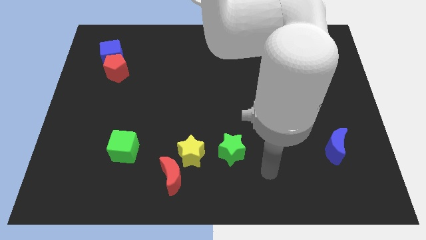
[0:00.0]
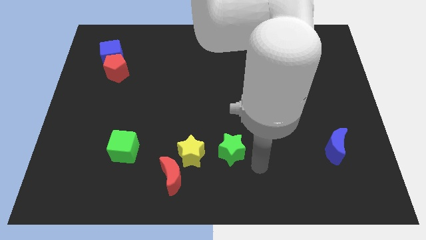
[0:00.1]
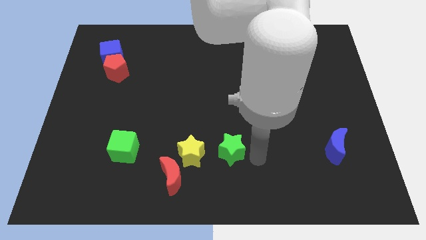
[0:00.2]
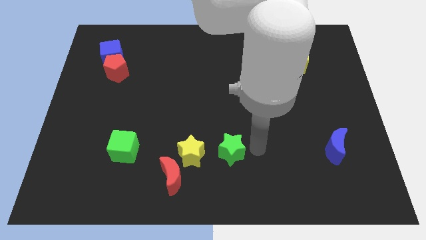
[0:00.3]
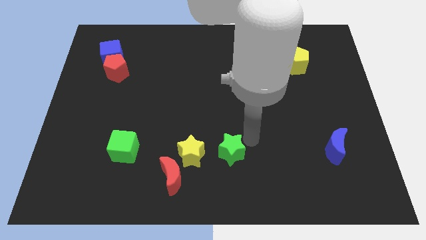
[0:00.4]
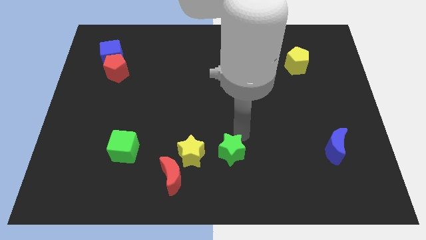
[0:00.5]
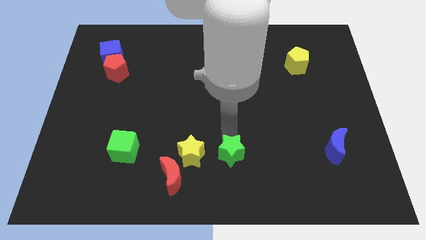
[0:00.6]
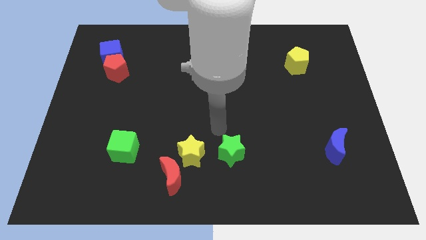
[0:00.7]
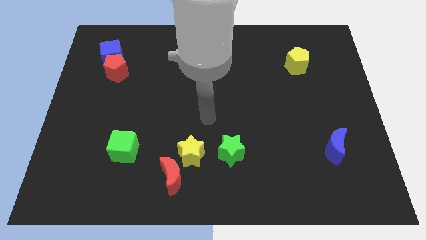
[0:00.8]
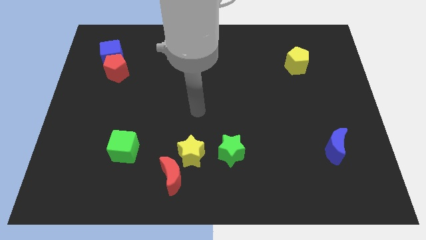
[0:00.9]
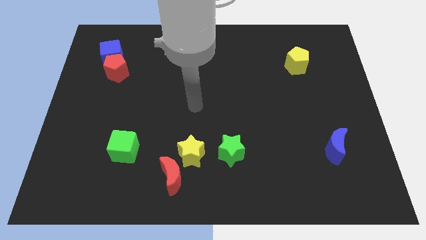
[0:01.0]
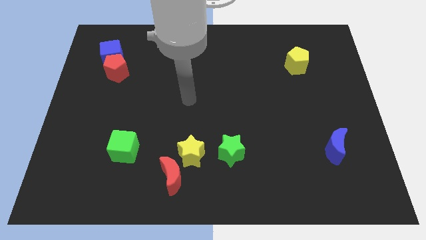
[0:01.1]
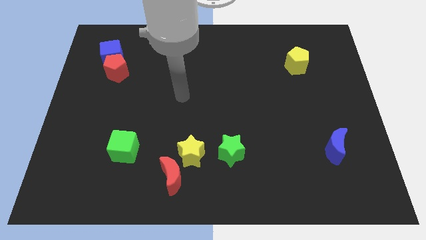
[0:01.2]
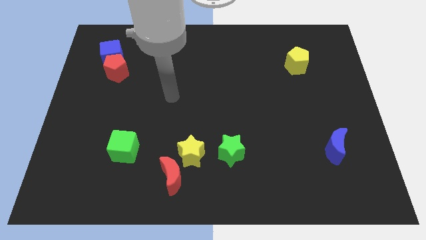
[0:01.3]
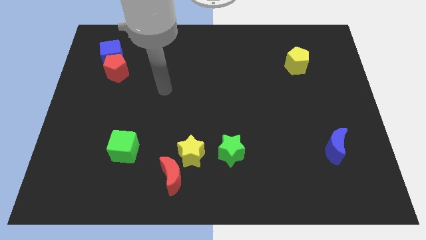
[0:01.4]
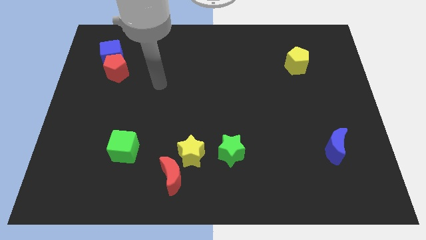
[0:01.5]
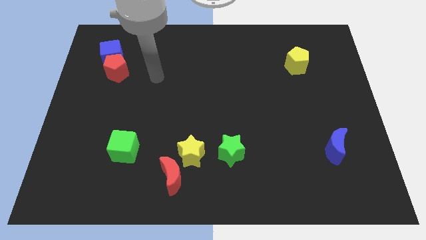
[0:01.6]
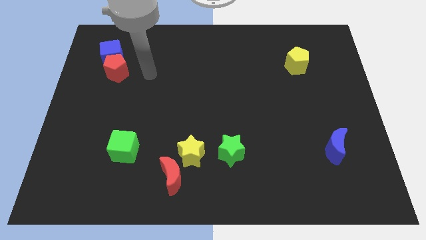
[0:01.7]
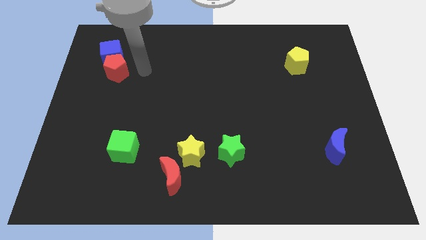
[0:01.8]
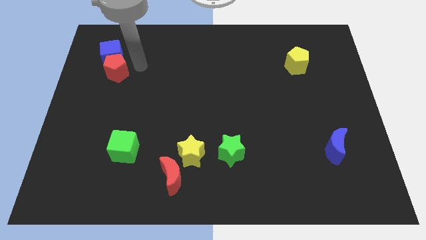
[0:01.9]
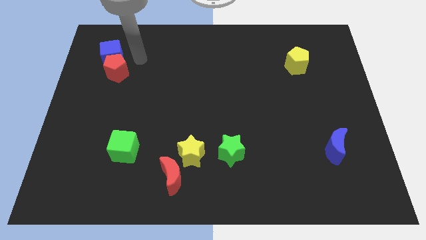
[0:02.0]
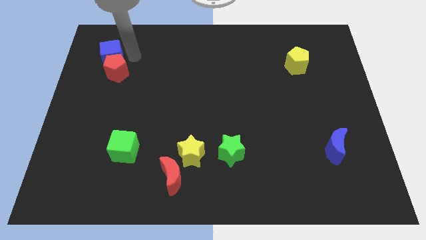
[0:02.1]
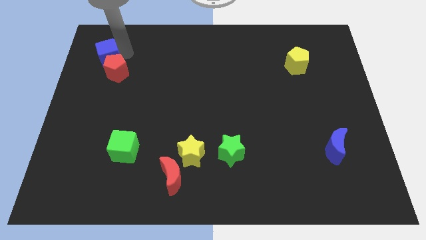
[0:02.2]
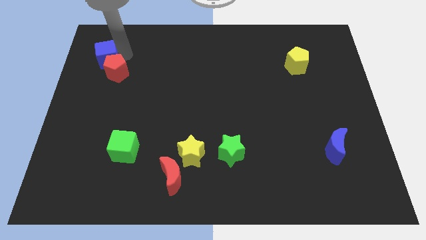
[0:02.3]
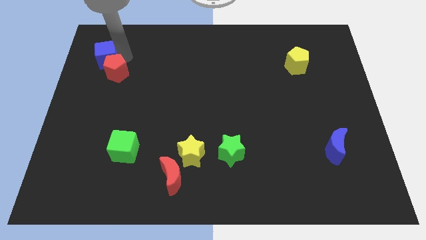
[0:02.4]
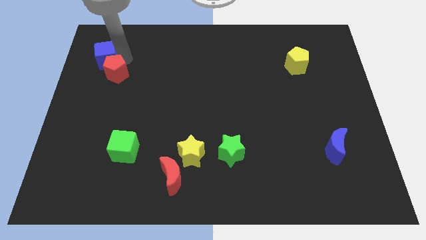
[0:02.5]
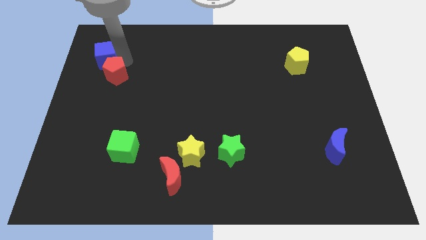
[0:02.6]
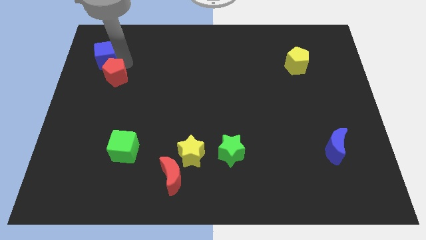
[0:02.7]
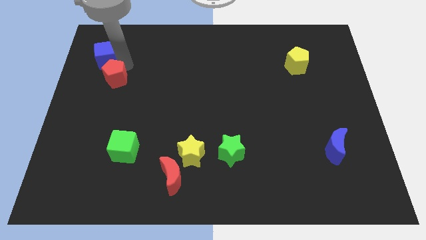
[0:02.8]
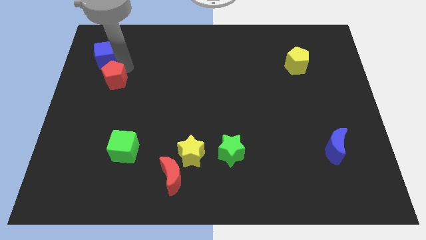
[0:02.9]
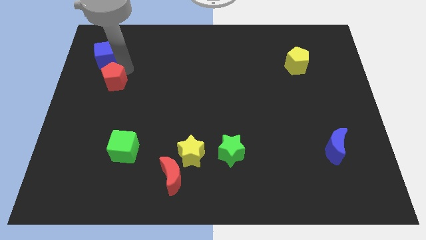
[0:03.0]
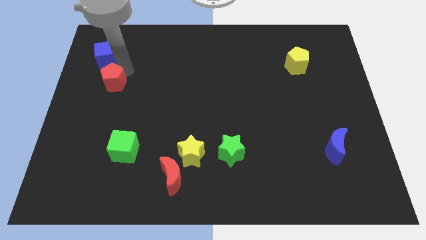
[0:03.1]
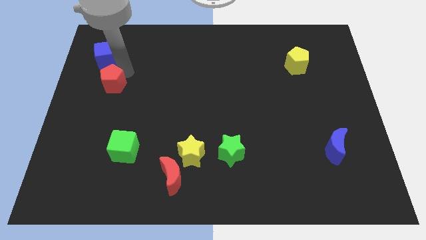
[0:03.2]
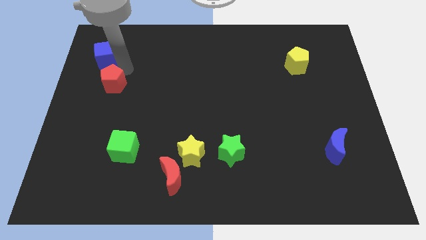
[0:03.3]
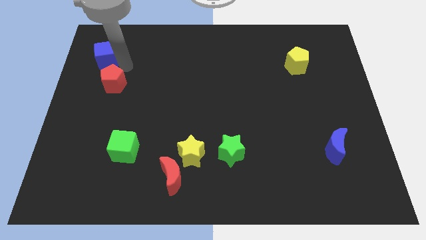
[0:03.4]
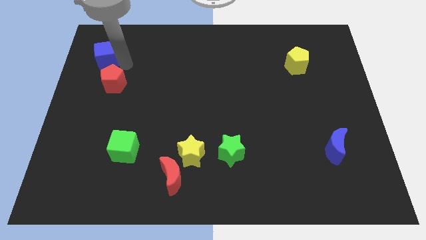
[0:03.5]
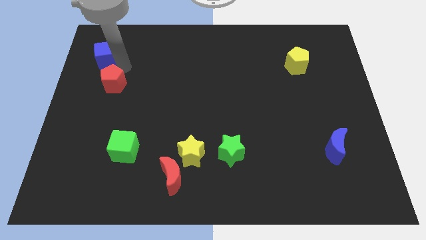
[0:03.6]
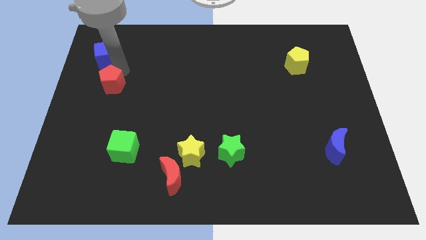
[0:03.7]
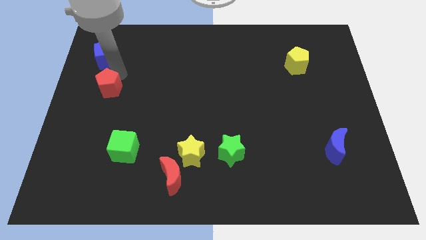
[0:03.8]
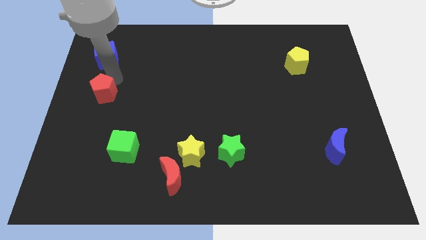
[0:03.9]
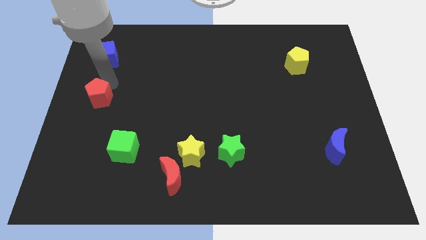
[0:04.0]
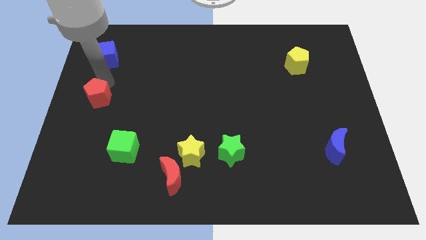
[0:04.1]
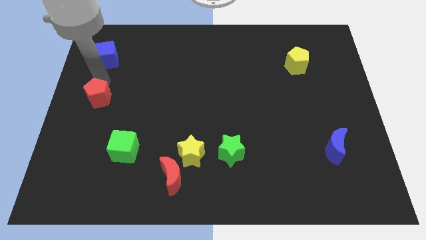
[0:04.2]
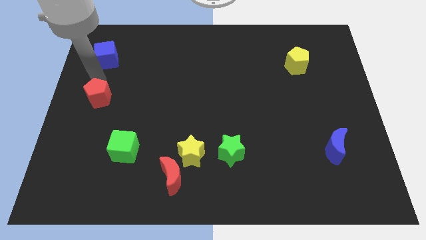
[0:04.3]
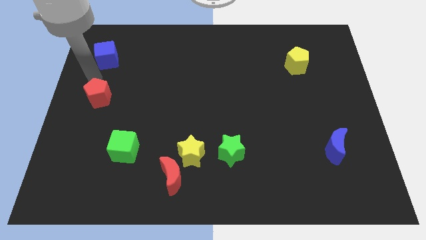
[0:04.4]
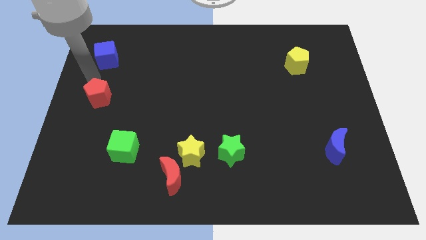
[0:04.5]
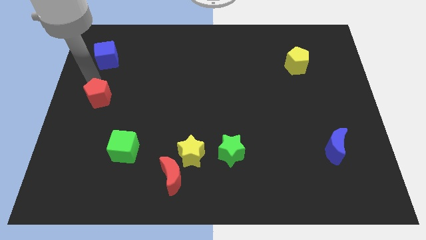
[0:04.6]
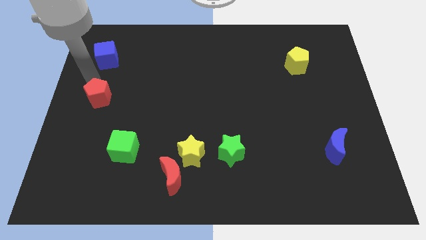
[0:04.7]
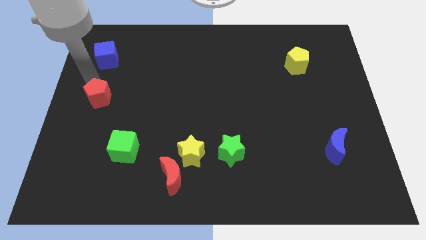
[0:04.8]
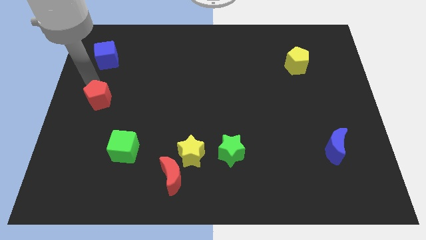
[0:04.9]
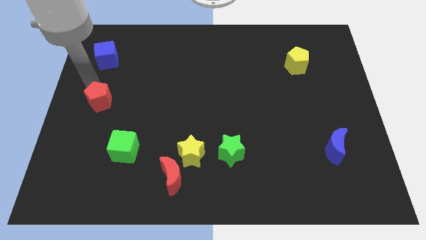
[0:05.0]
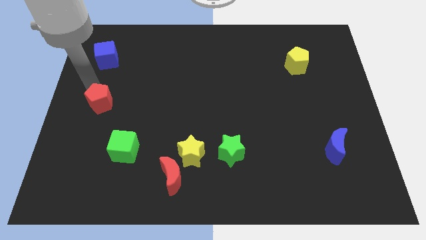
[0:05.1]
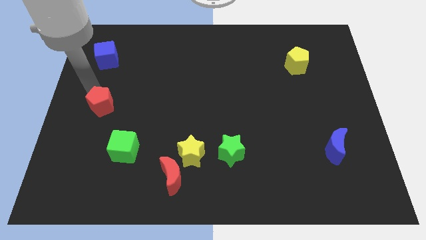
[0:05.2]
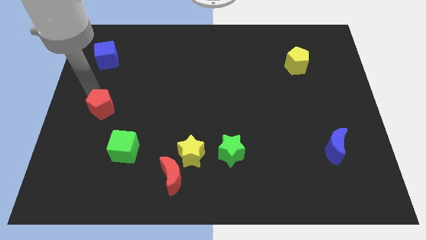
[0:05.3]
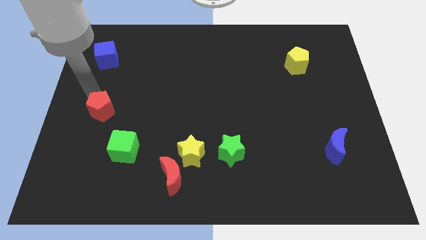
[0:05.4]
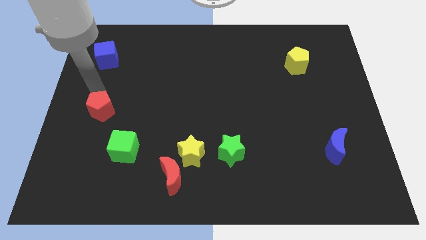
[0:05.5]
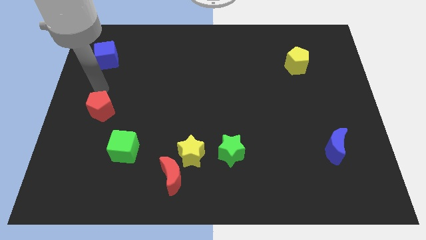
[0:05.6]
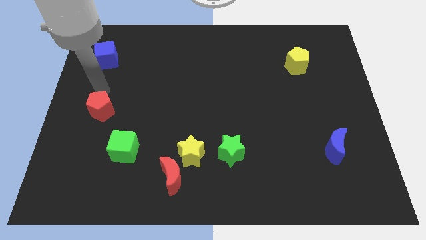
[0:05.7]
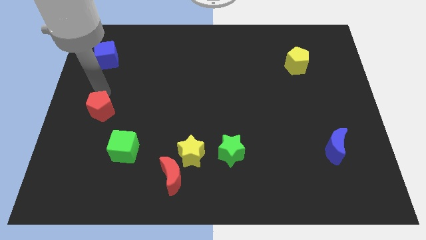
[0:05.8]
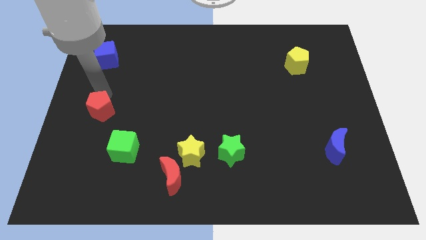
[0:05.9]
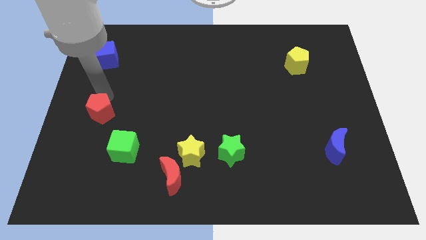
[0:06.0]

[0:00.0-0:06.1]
slide the red pentagon diagonally up and to the left of the green cube

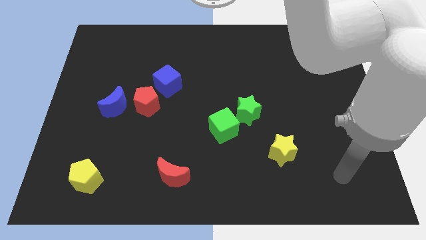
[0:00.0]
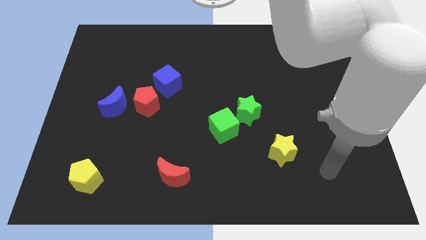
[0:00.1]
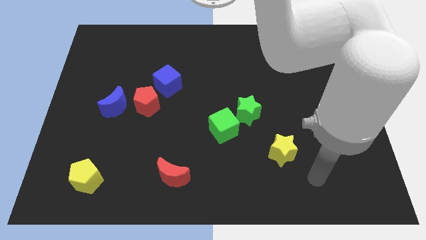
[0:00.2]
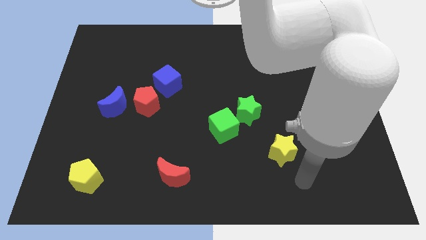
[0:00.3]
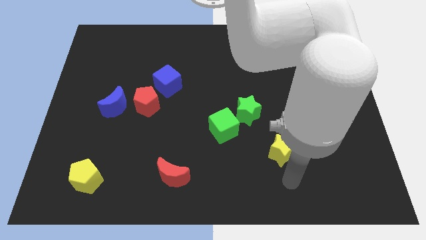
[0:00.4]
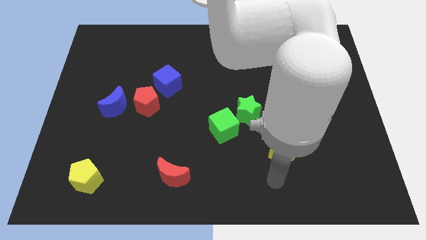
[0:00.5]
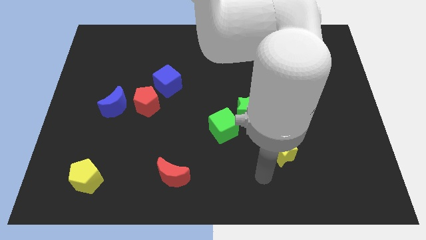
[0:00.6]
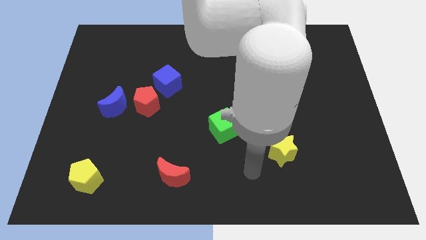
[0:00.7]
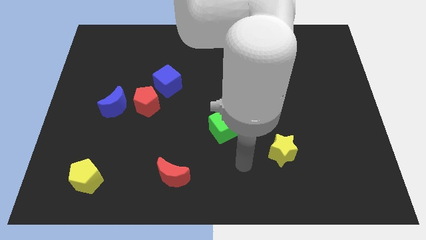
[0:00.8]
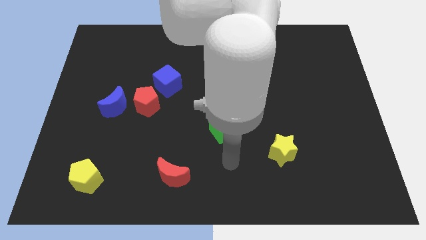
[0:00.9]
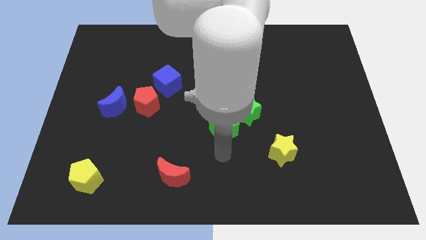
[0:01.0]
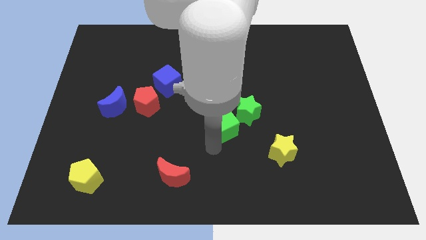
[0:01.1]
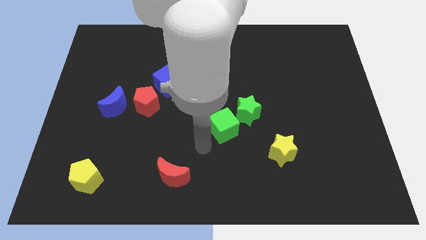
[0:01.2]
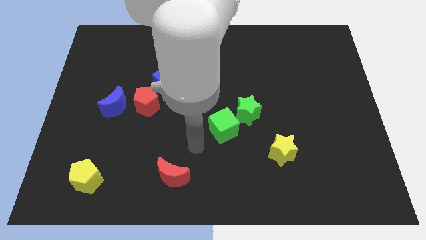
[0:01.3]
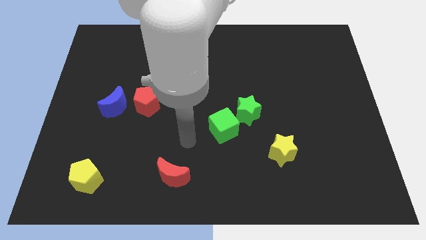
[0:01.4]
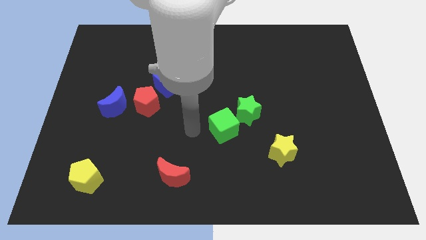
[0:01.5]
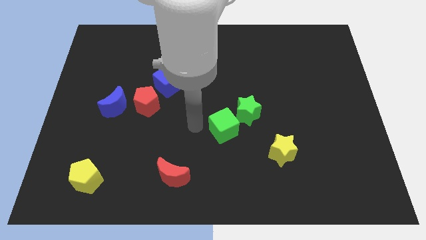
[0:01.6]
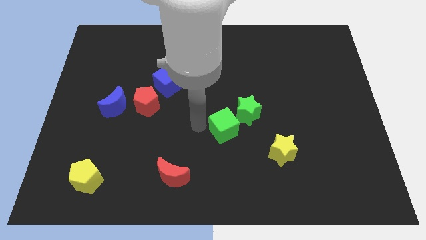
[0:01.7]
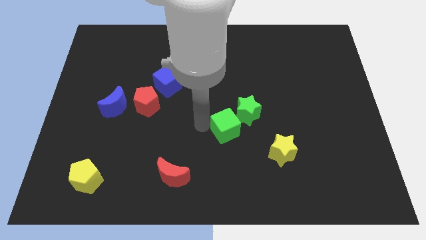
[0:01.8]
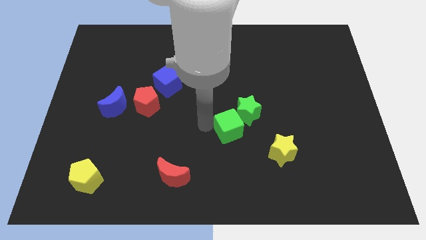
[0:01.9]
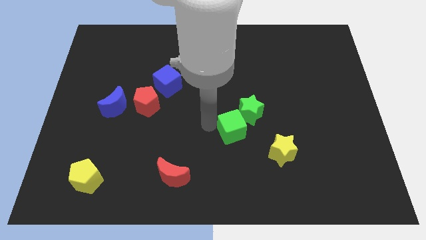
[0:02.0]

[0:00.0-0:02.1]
move the green cube to the top left side of the yellow star
